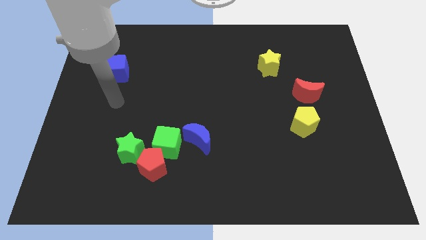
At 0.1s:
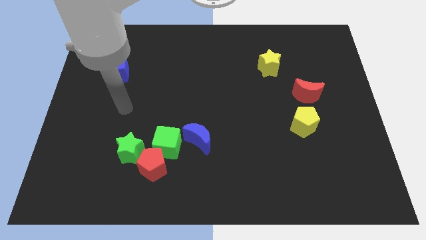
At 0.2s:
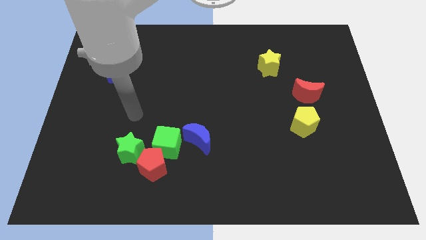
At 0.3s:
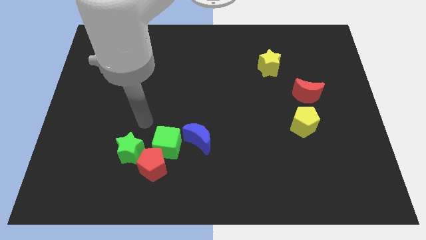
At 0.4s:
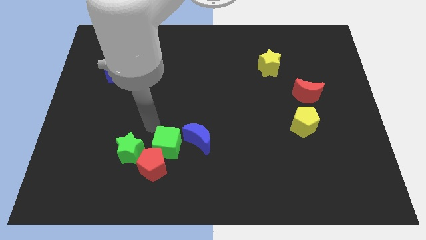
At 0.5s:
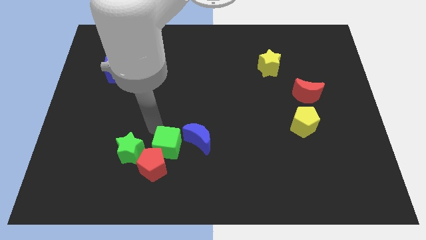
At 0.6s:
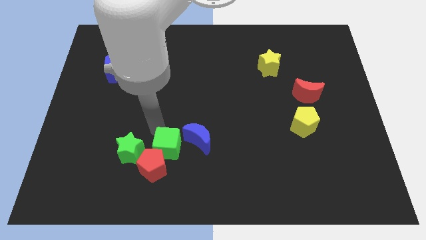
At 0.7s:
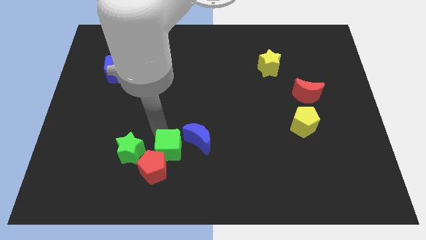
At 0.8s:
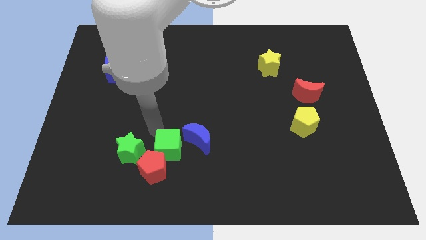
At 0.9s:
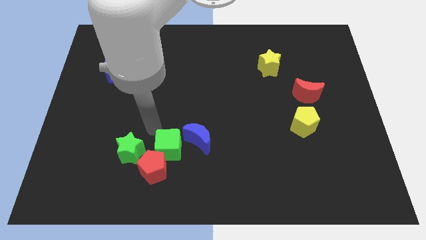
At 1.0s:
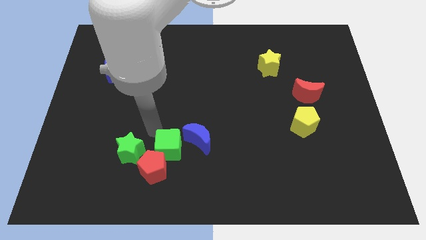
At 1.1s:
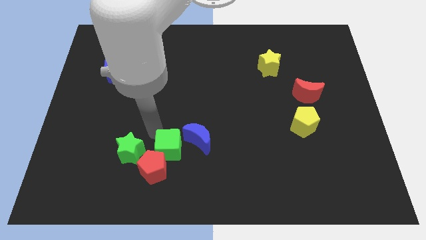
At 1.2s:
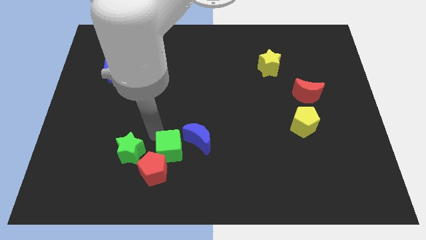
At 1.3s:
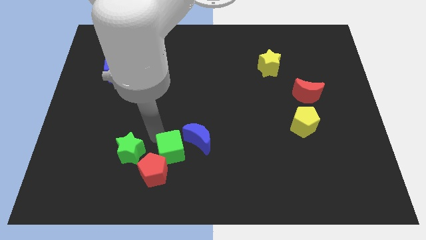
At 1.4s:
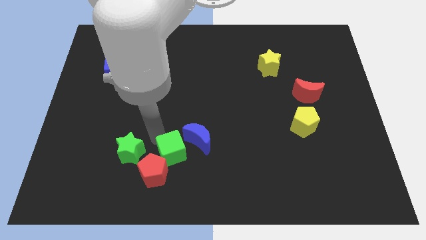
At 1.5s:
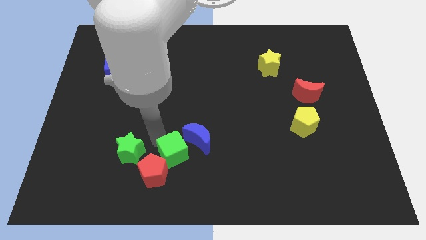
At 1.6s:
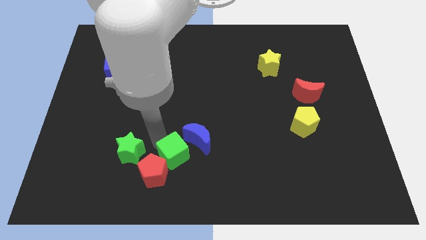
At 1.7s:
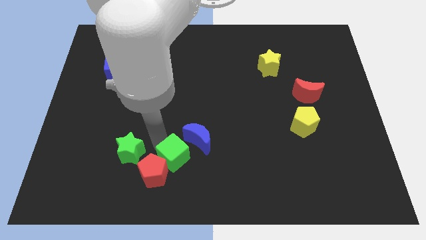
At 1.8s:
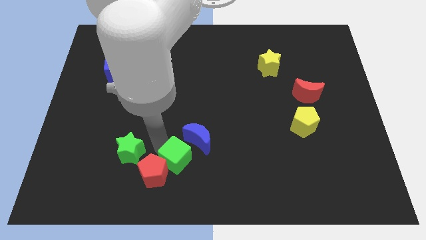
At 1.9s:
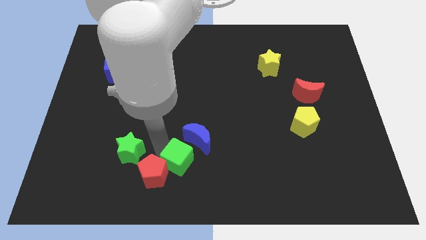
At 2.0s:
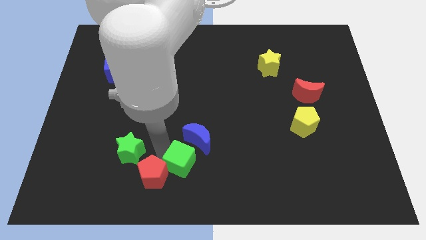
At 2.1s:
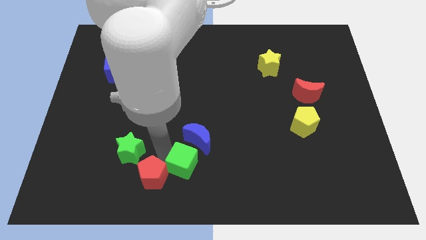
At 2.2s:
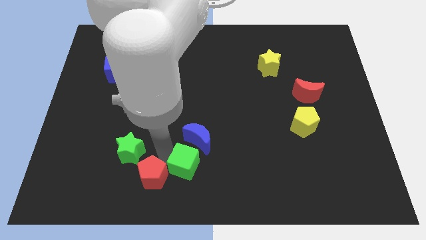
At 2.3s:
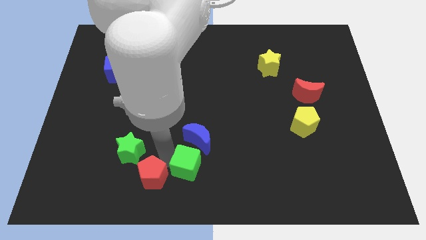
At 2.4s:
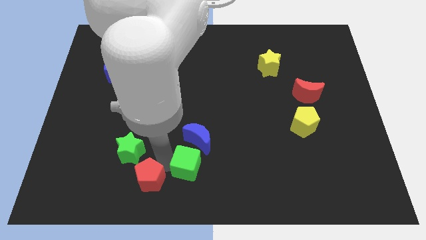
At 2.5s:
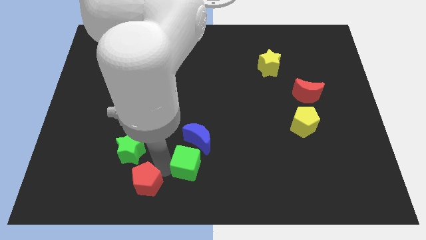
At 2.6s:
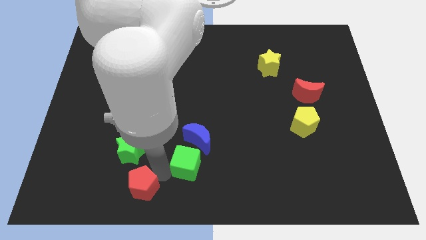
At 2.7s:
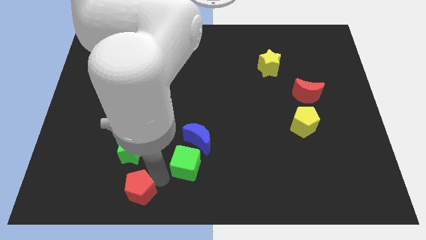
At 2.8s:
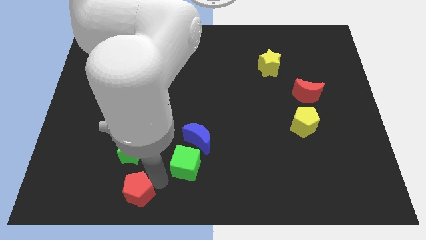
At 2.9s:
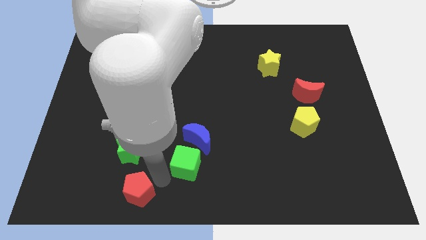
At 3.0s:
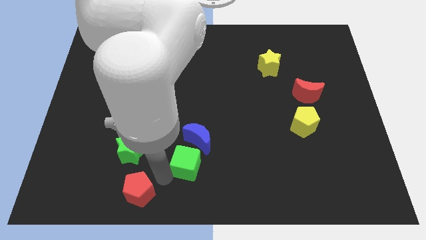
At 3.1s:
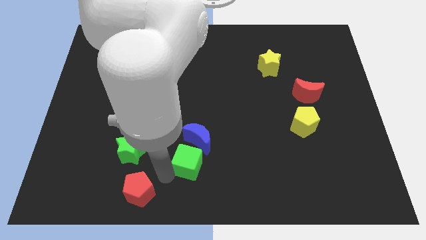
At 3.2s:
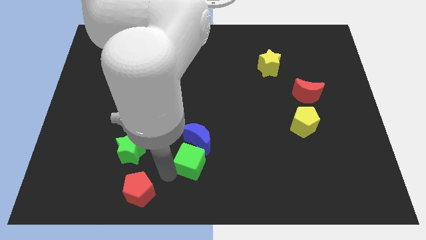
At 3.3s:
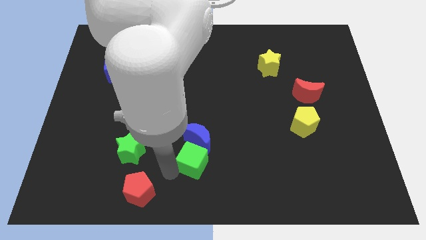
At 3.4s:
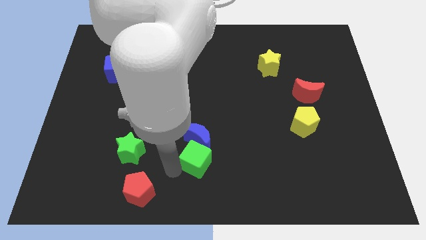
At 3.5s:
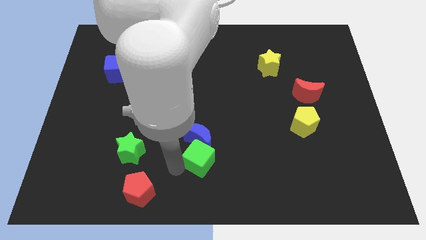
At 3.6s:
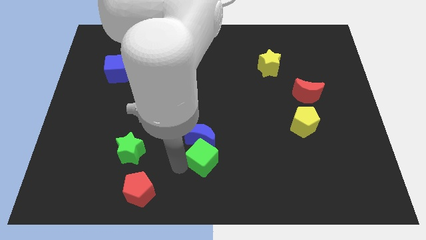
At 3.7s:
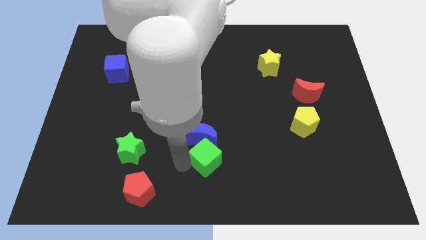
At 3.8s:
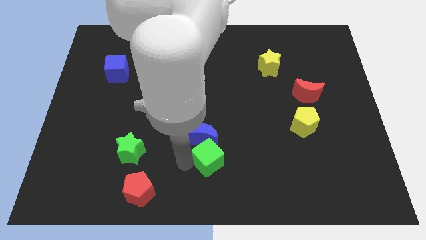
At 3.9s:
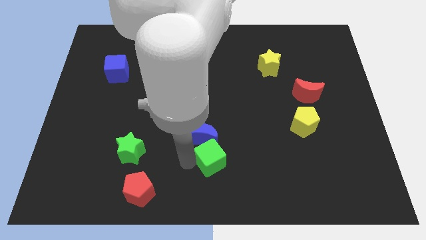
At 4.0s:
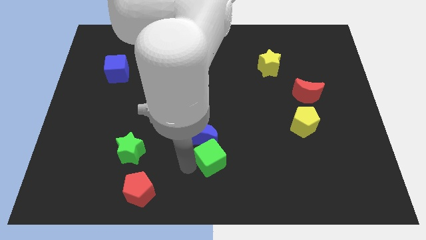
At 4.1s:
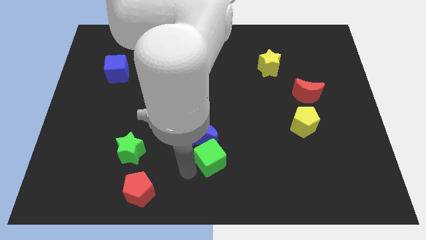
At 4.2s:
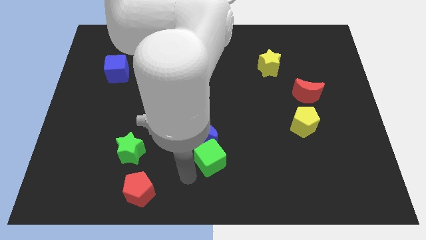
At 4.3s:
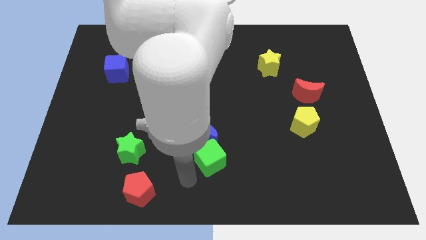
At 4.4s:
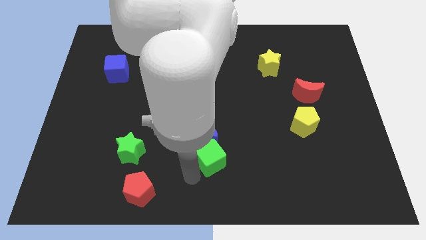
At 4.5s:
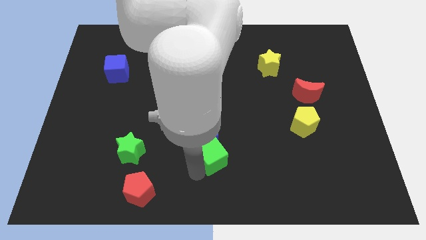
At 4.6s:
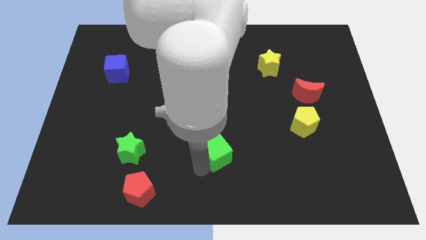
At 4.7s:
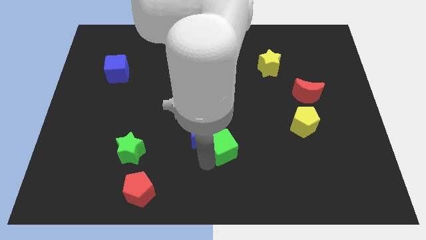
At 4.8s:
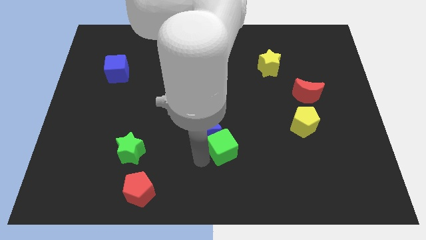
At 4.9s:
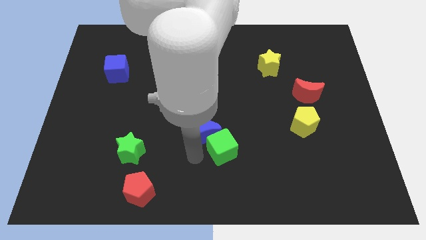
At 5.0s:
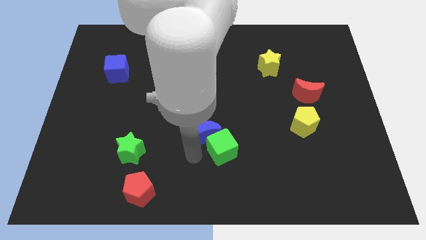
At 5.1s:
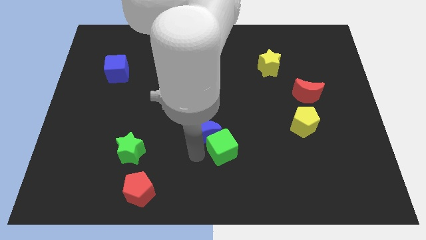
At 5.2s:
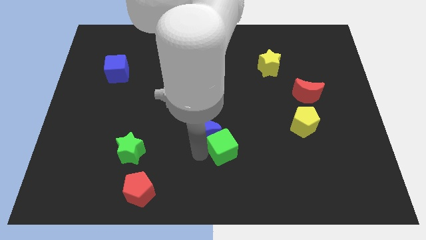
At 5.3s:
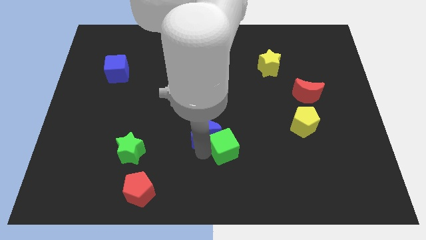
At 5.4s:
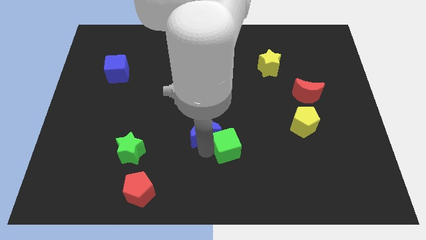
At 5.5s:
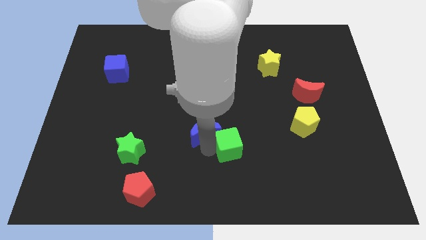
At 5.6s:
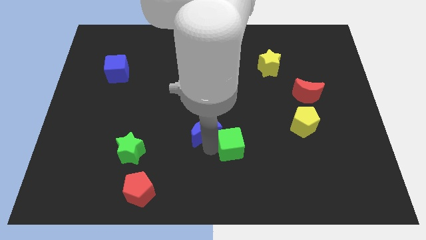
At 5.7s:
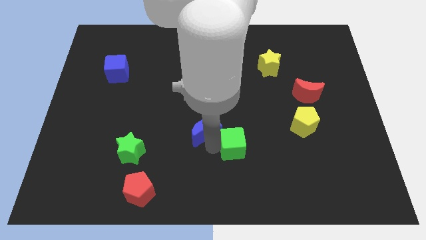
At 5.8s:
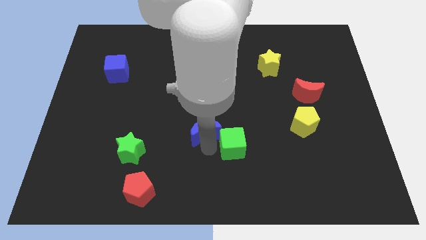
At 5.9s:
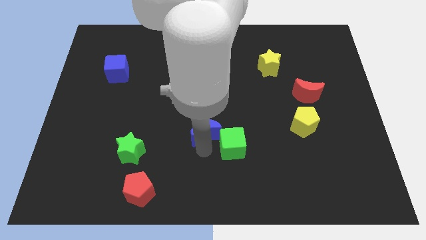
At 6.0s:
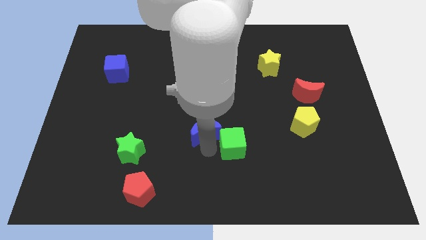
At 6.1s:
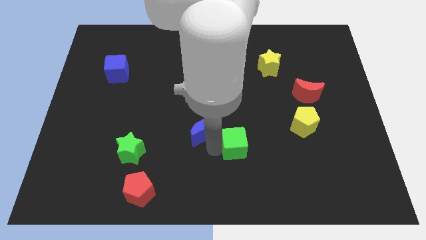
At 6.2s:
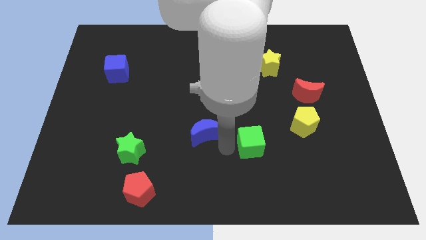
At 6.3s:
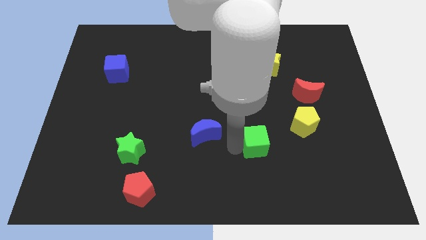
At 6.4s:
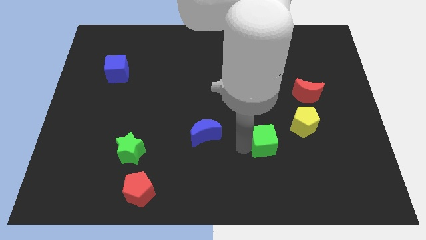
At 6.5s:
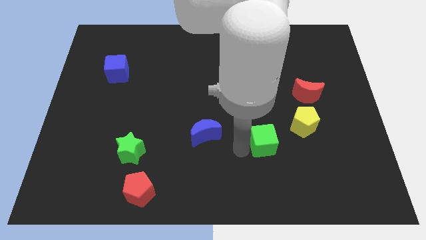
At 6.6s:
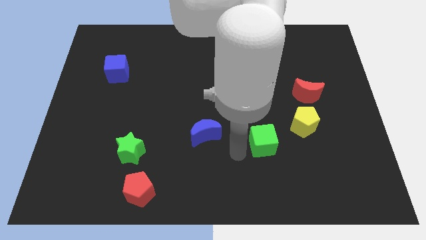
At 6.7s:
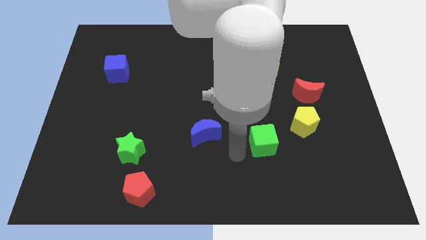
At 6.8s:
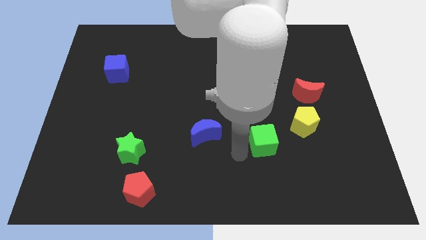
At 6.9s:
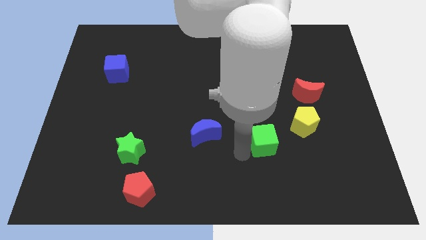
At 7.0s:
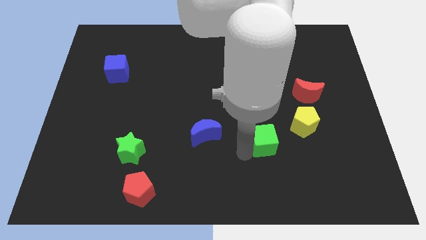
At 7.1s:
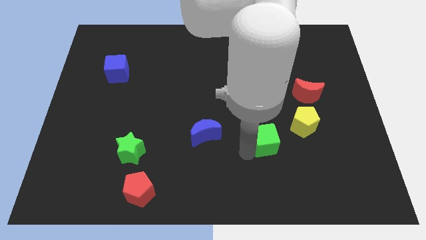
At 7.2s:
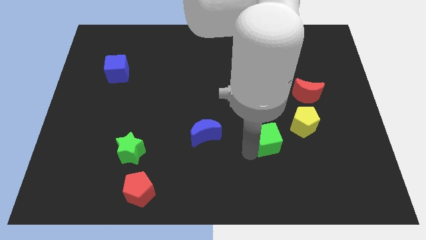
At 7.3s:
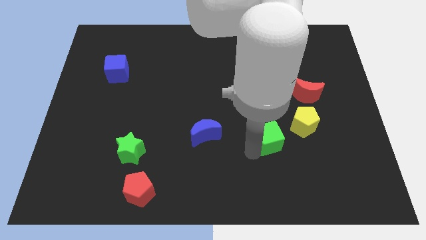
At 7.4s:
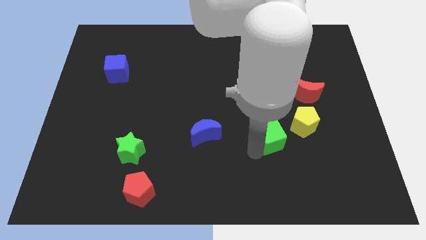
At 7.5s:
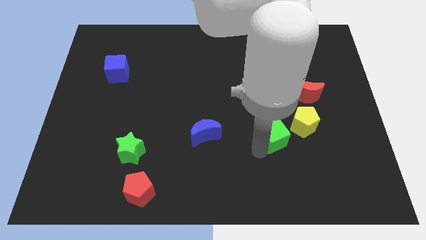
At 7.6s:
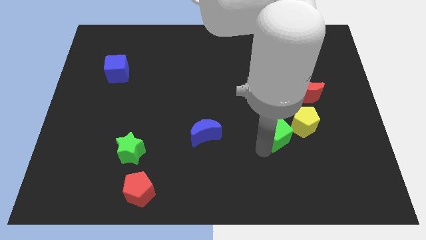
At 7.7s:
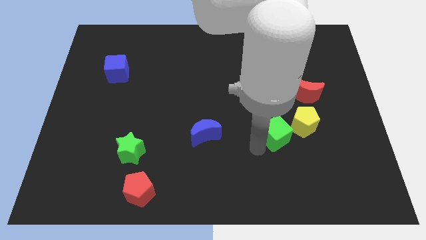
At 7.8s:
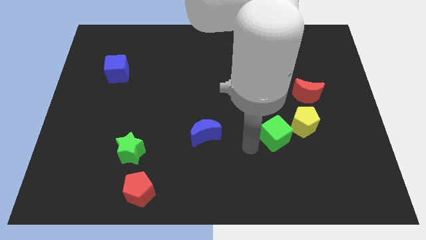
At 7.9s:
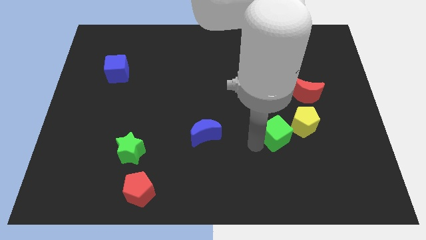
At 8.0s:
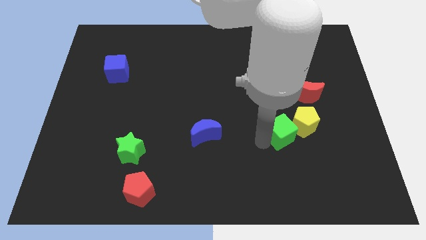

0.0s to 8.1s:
move the green cube next to the yellow pentagon
